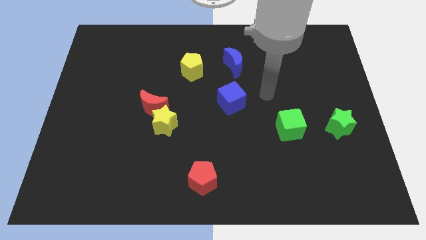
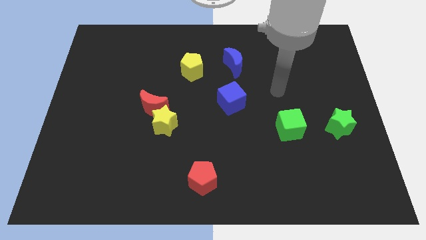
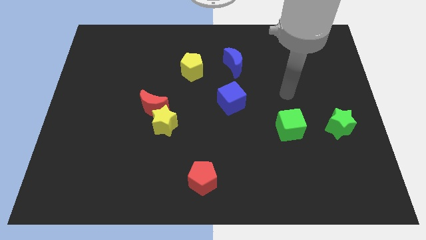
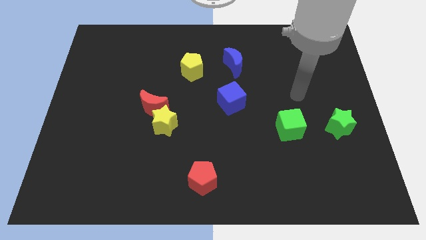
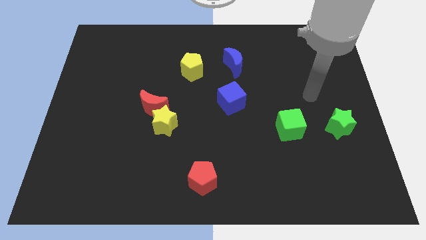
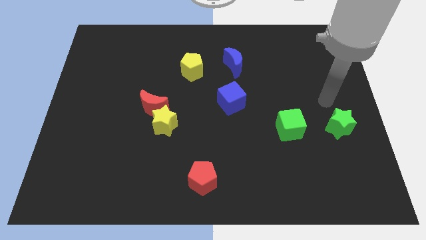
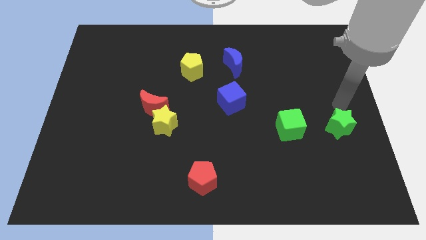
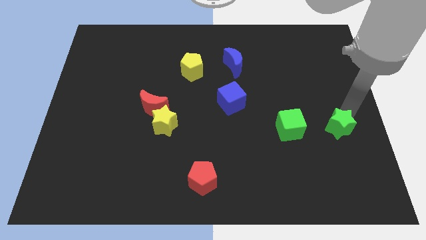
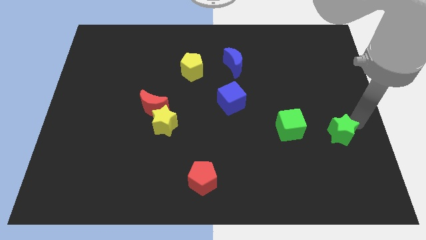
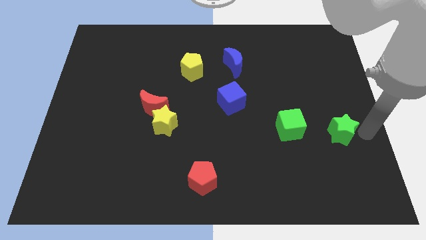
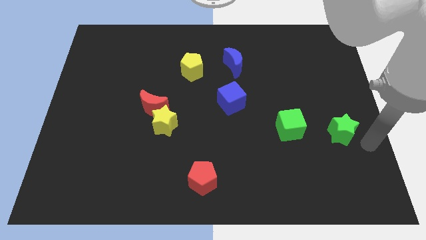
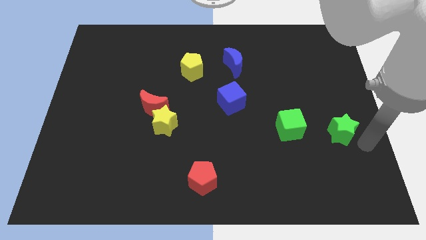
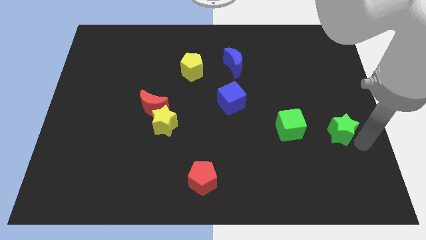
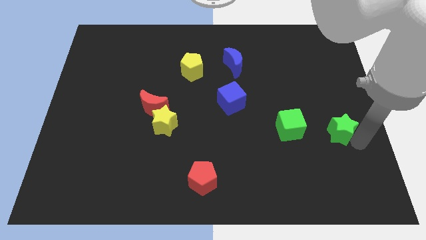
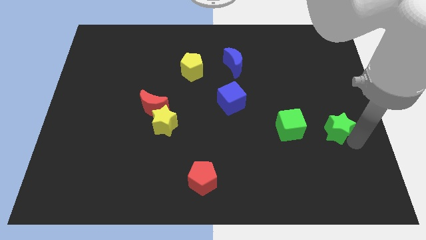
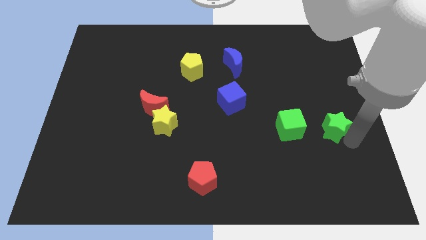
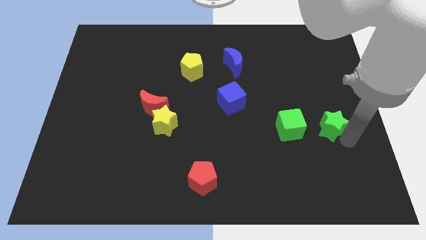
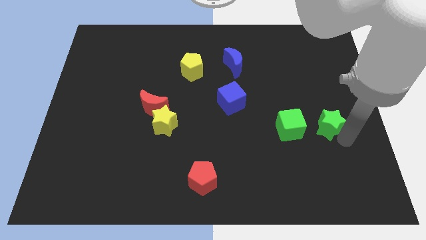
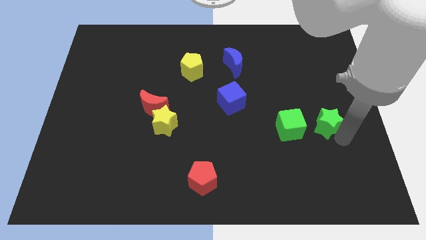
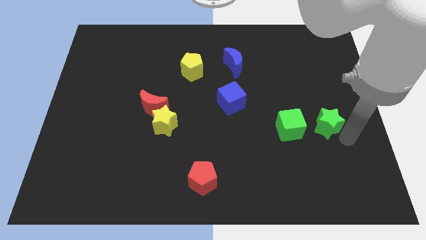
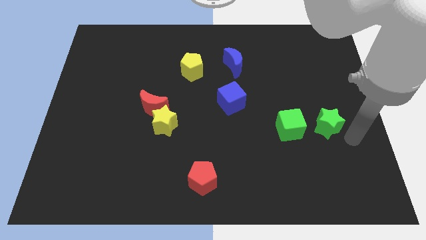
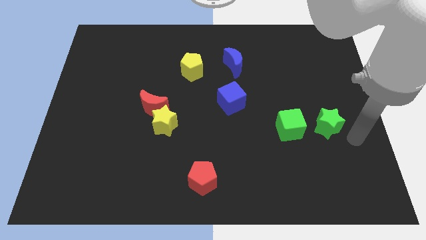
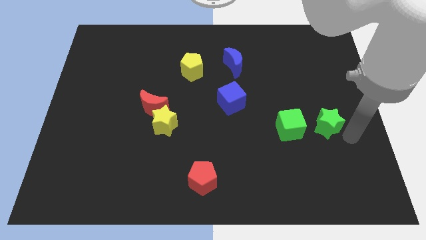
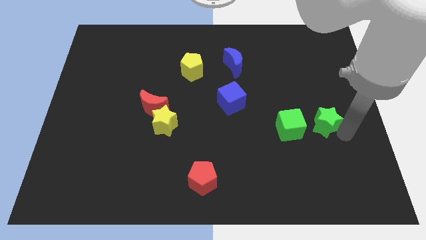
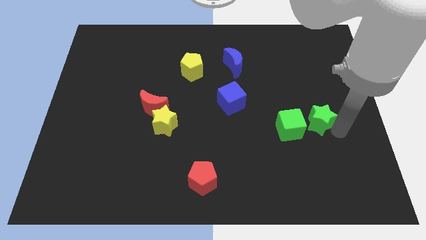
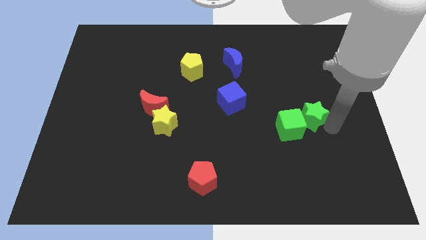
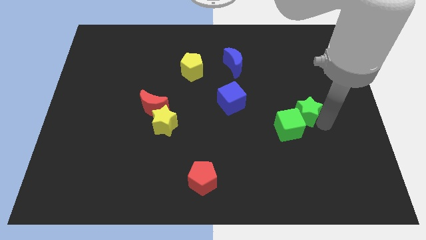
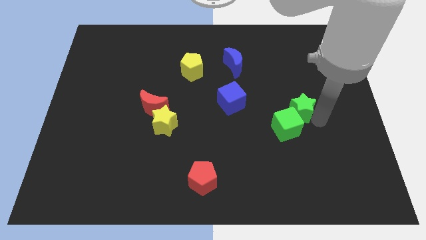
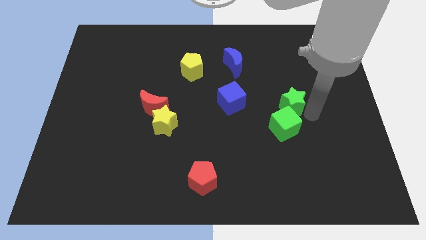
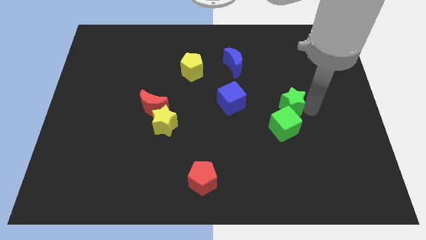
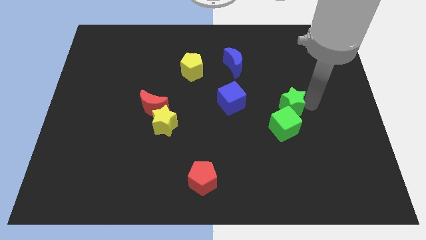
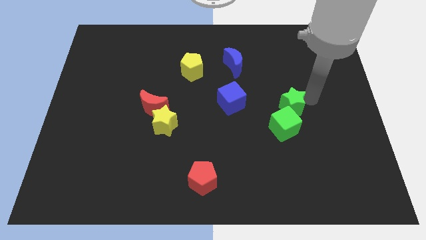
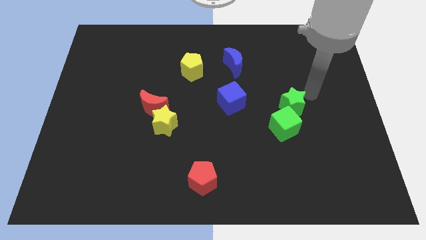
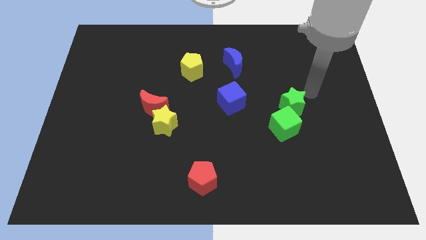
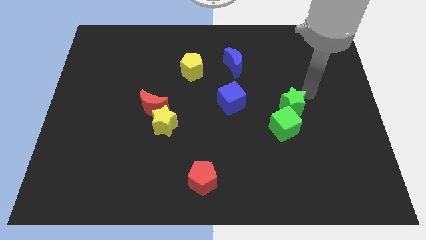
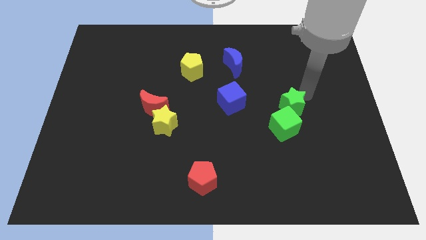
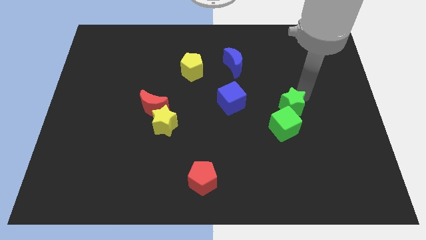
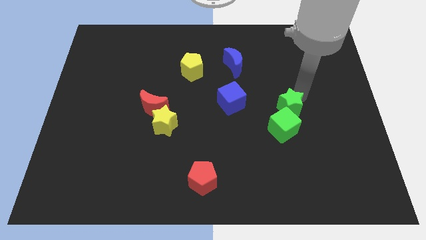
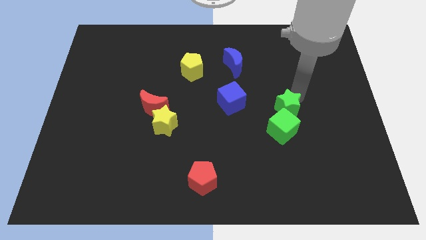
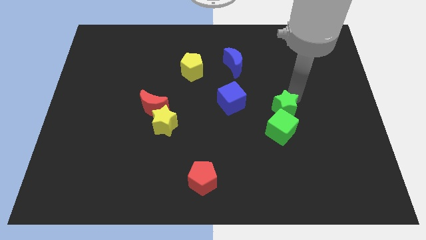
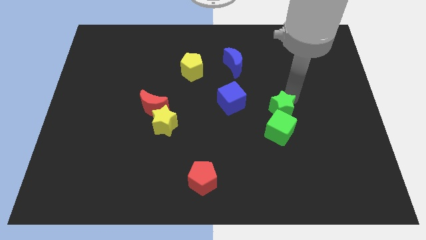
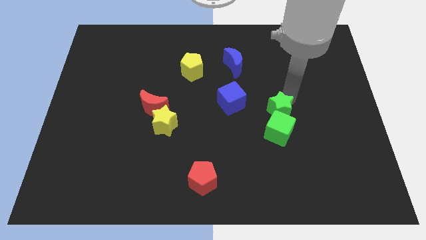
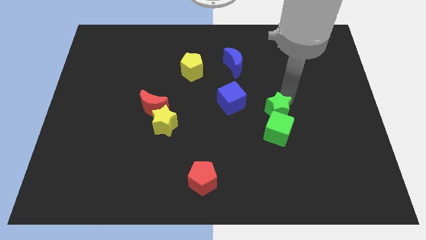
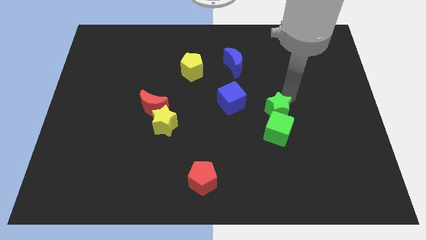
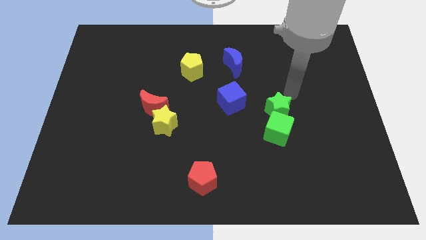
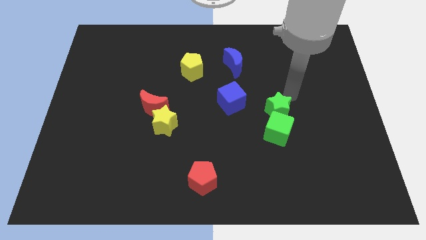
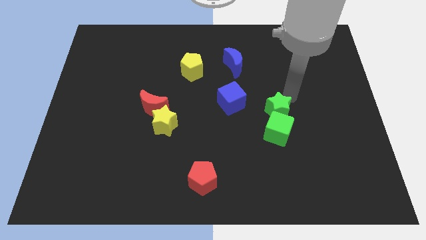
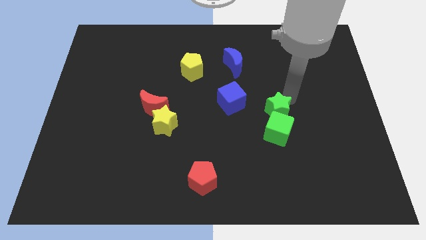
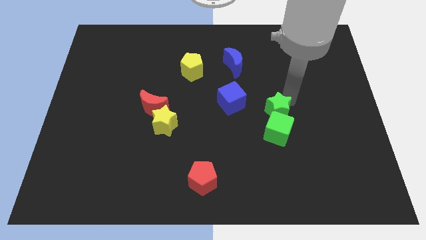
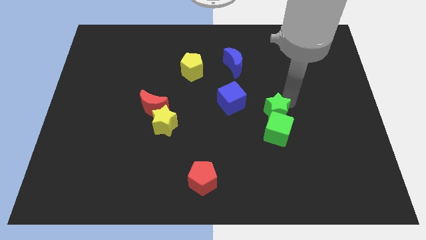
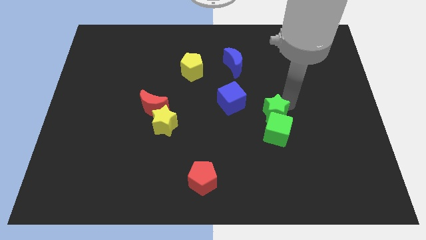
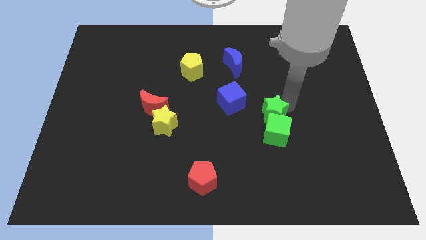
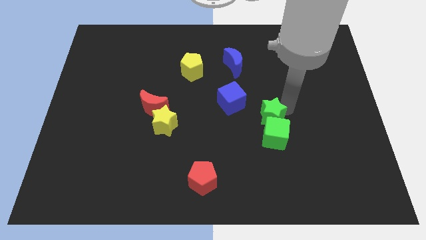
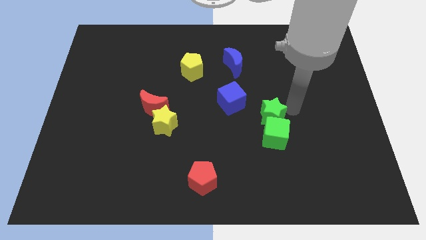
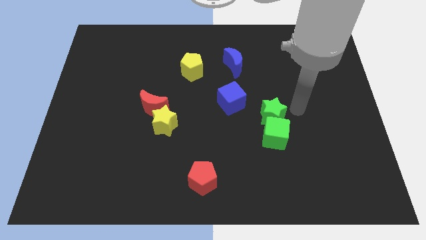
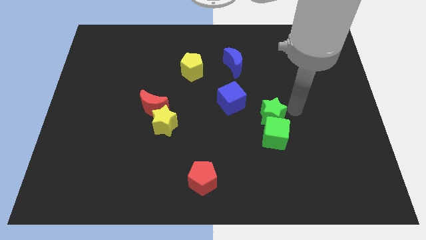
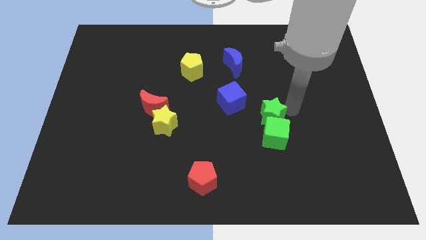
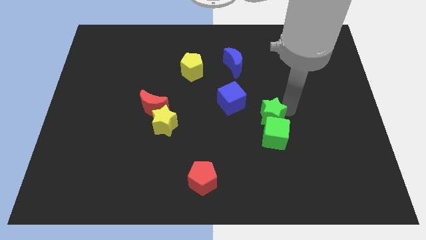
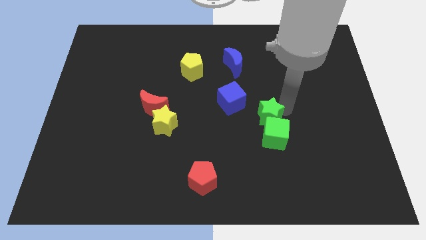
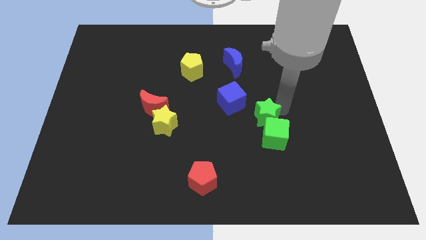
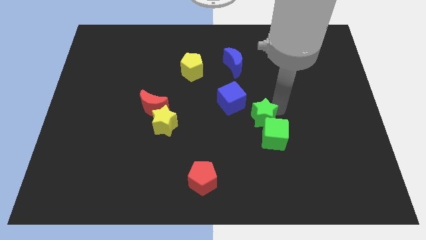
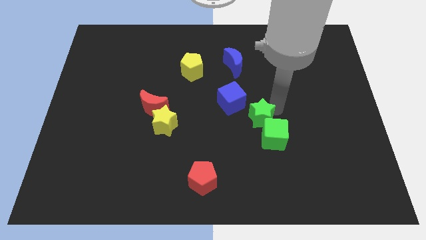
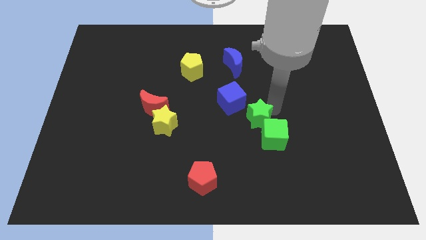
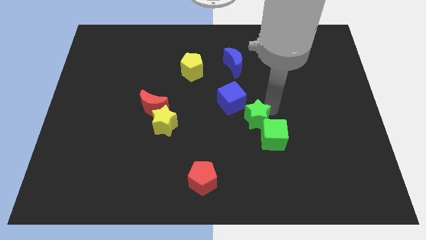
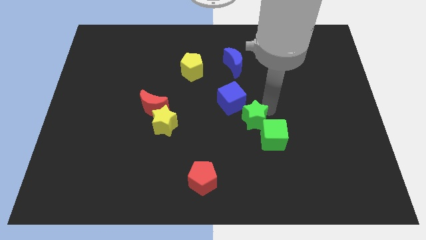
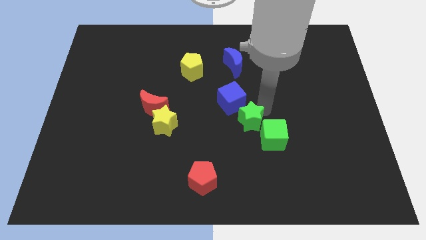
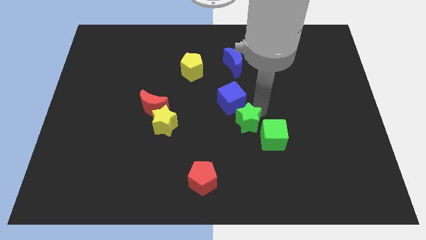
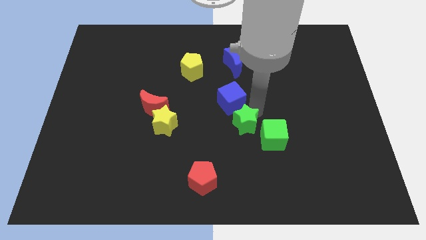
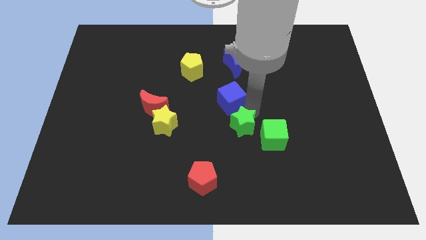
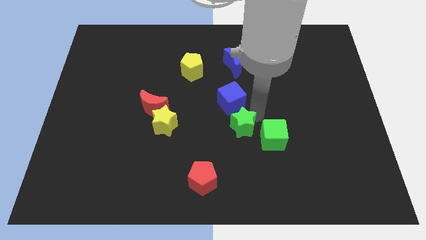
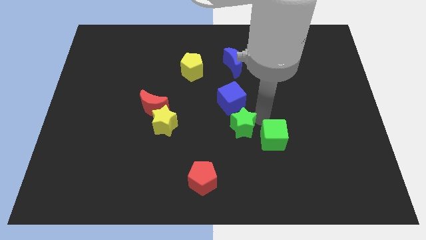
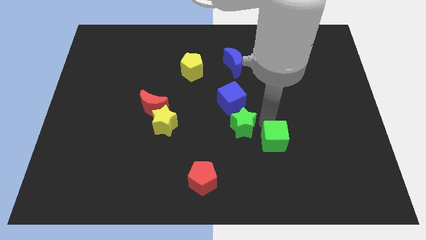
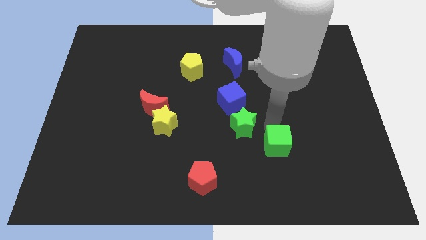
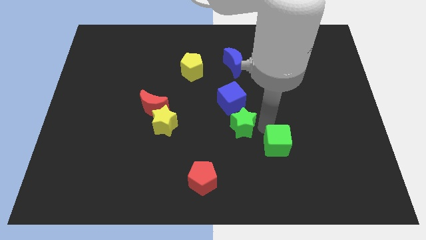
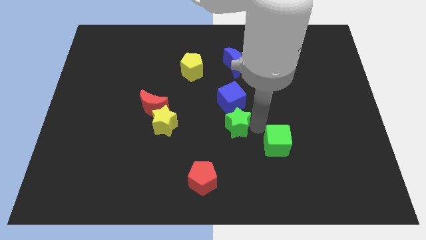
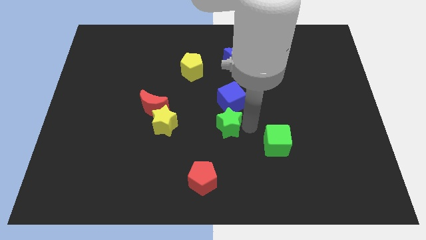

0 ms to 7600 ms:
push the green star to the right side of the yellow star

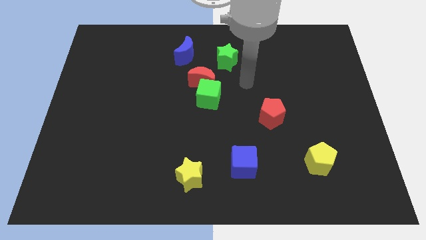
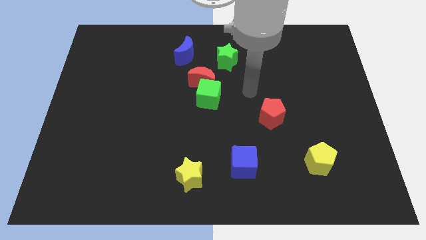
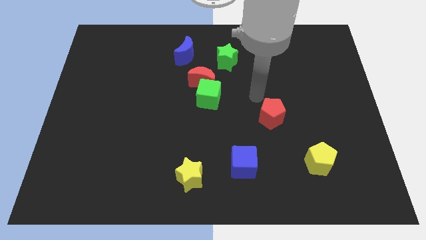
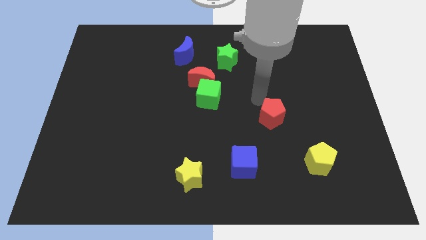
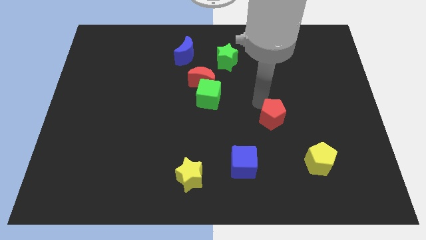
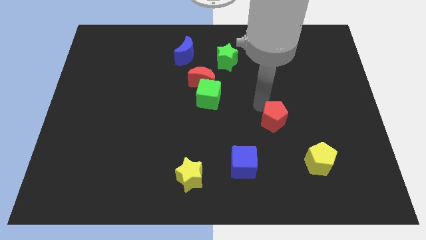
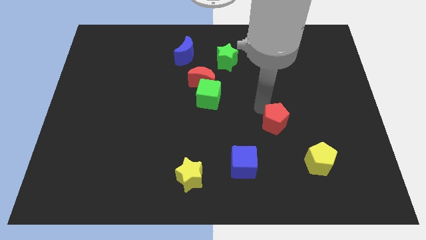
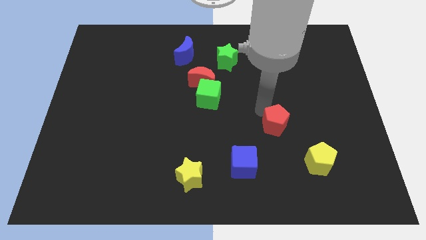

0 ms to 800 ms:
move the red pentagon to the top left of the yellow pentagon
